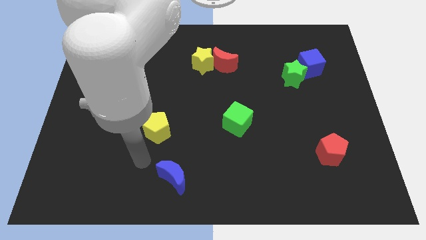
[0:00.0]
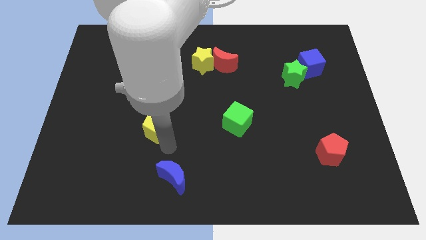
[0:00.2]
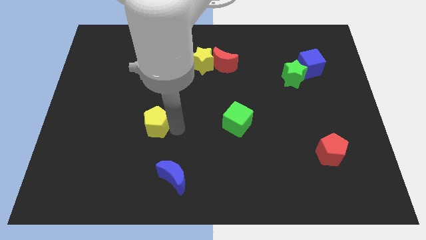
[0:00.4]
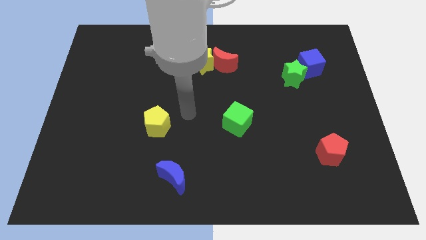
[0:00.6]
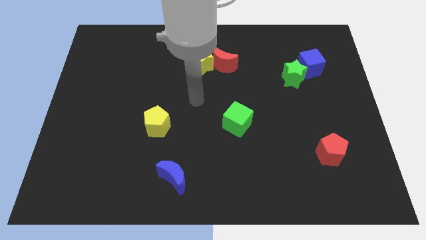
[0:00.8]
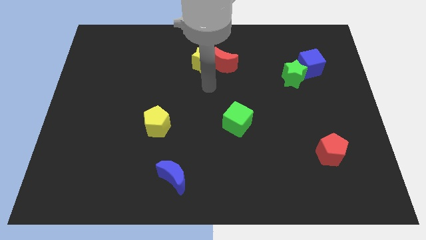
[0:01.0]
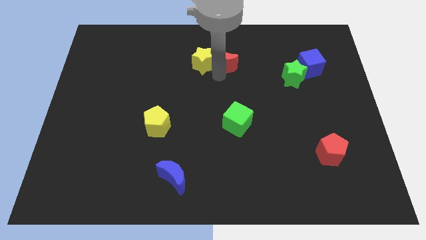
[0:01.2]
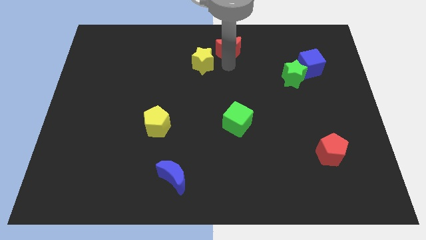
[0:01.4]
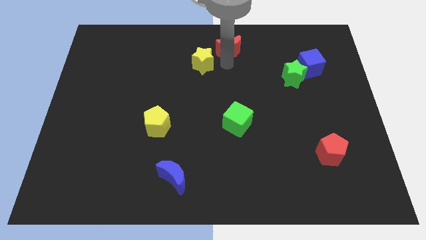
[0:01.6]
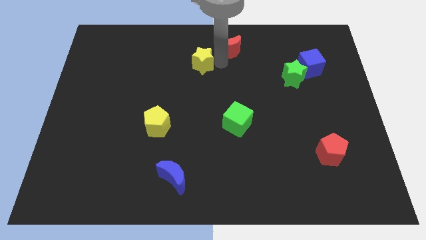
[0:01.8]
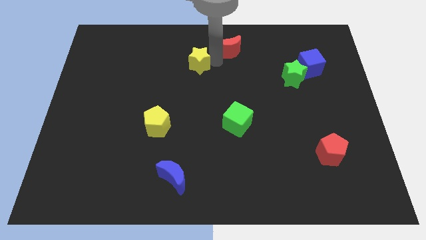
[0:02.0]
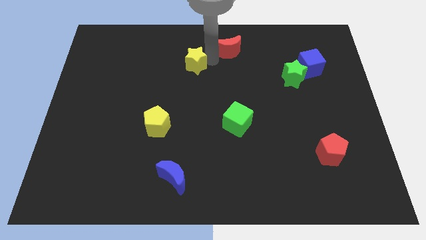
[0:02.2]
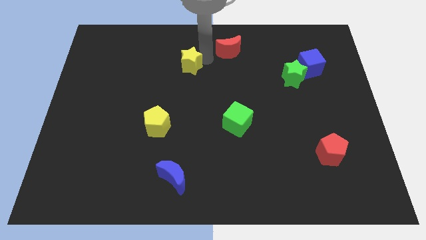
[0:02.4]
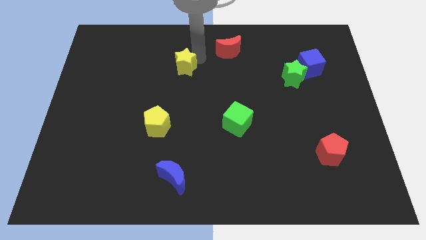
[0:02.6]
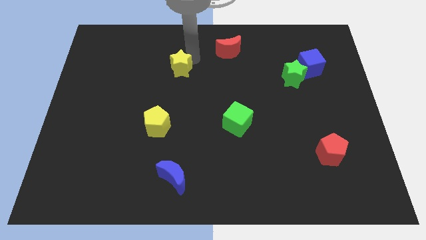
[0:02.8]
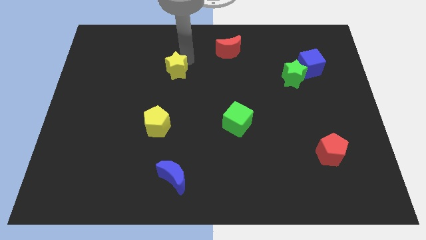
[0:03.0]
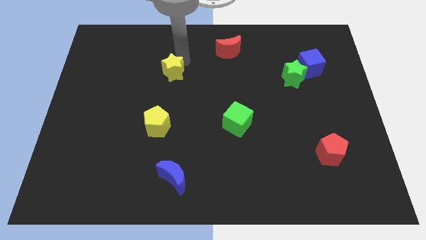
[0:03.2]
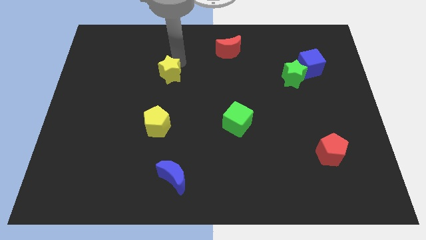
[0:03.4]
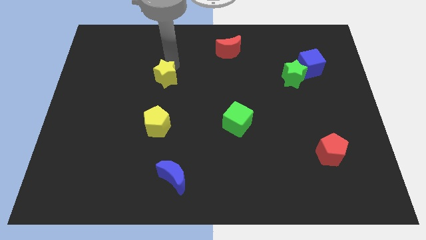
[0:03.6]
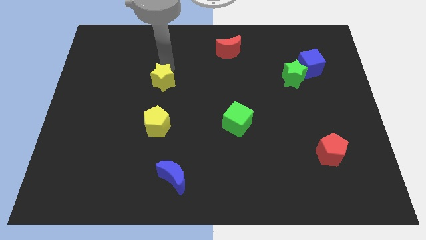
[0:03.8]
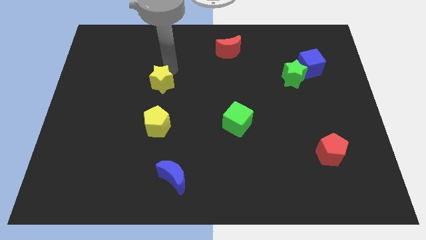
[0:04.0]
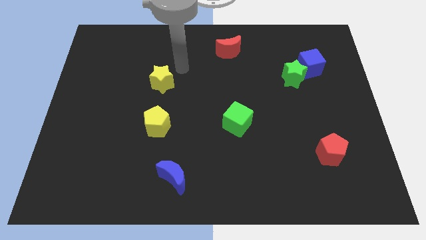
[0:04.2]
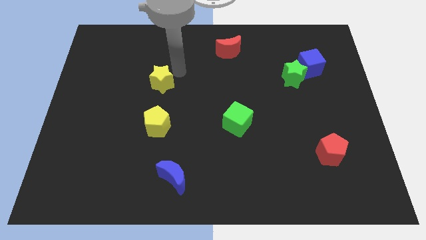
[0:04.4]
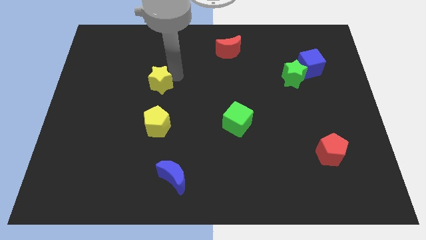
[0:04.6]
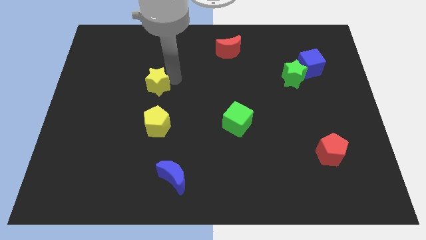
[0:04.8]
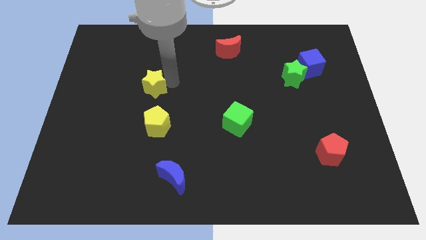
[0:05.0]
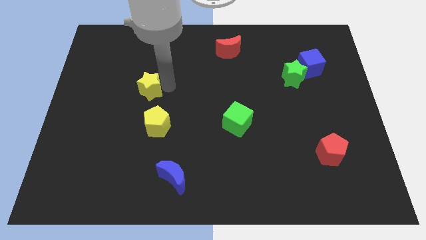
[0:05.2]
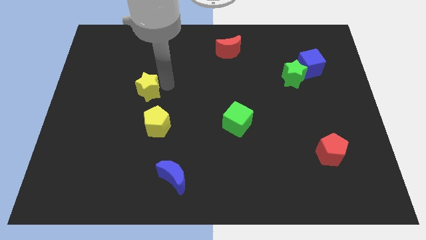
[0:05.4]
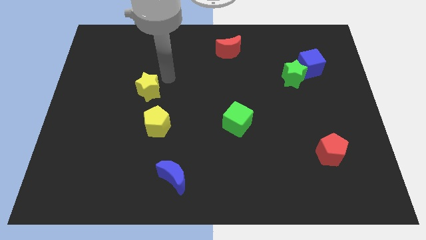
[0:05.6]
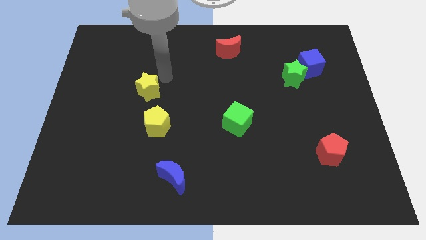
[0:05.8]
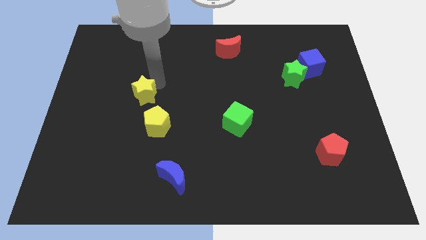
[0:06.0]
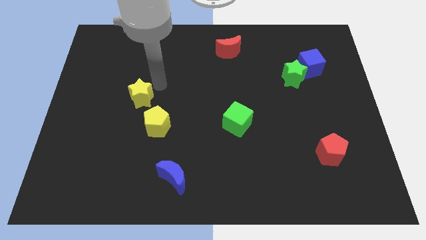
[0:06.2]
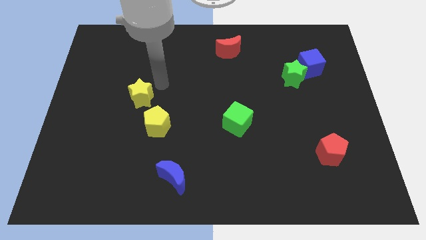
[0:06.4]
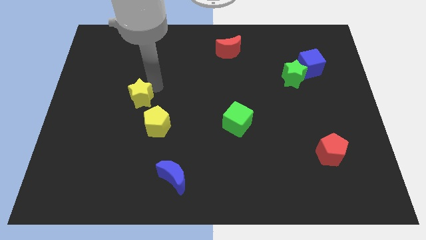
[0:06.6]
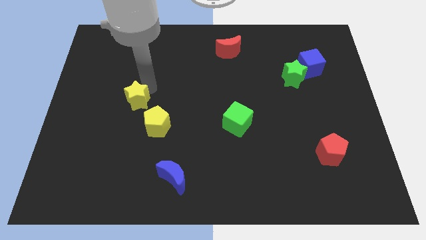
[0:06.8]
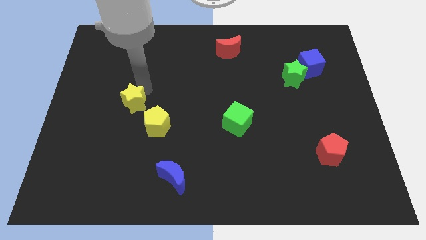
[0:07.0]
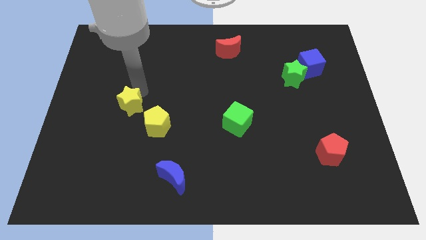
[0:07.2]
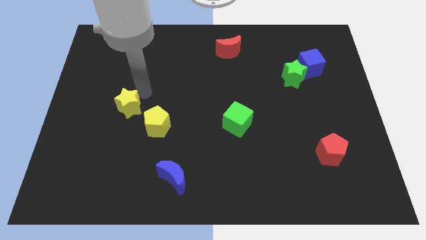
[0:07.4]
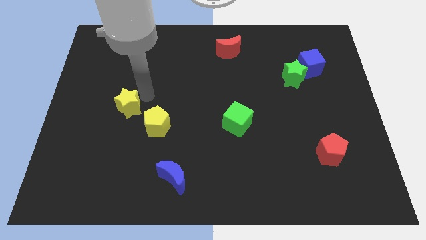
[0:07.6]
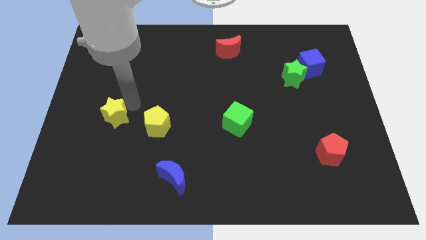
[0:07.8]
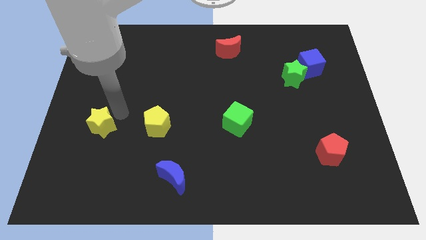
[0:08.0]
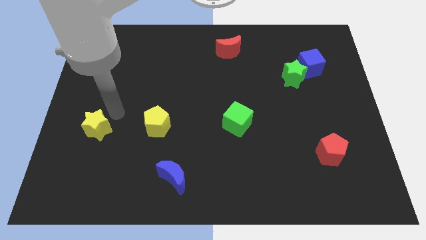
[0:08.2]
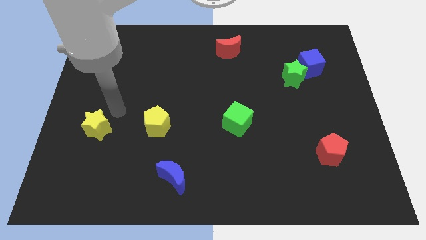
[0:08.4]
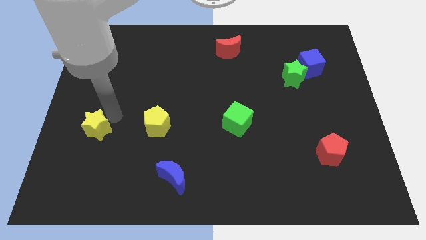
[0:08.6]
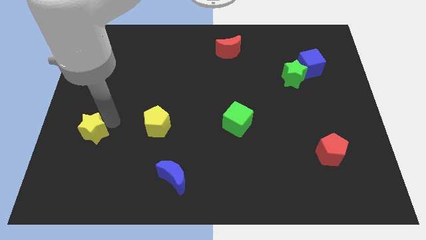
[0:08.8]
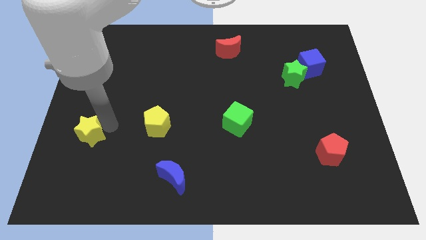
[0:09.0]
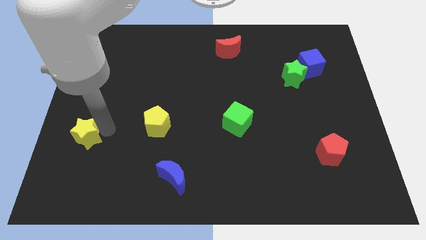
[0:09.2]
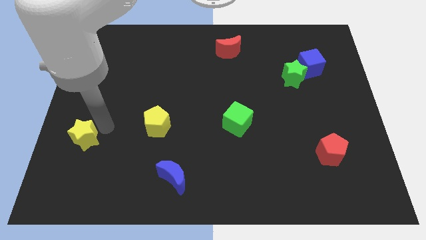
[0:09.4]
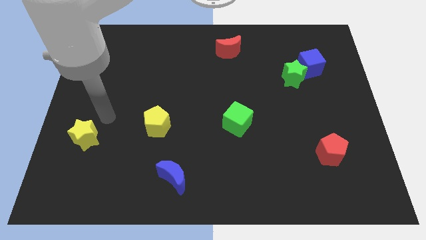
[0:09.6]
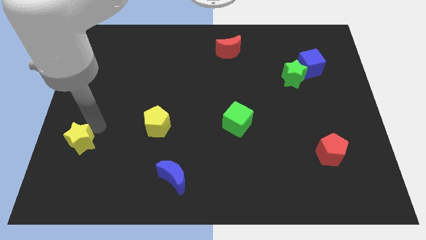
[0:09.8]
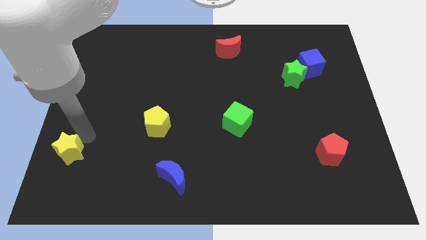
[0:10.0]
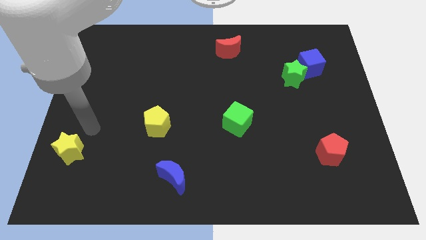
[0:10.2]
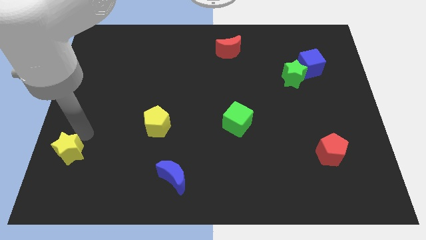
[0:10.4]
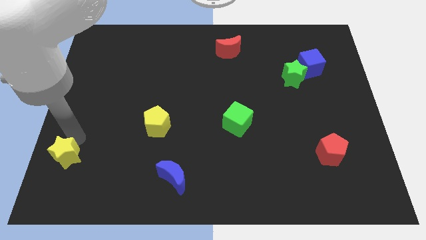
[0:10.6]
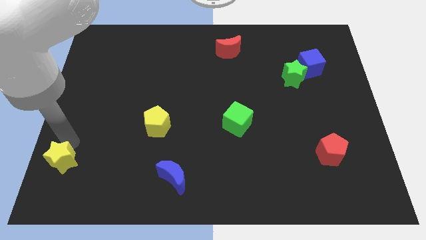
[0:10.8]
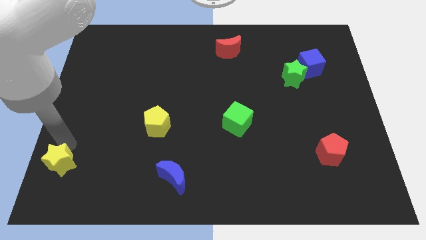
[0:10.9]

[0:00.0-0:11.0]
put the yellow star to the lower left corner

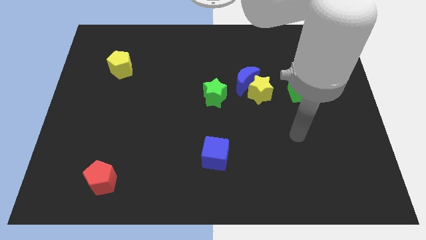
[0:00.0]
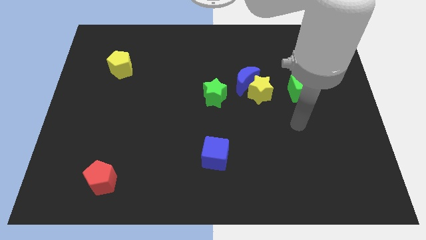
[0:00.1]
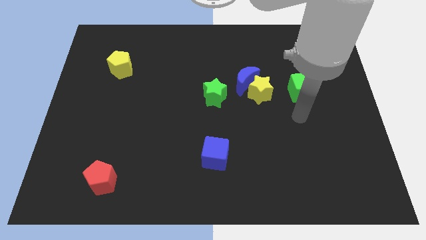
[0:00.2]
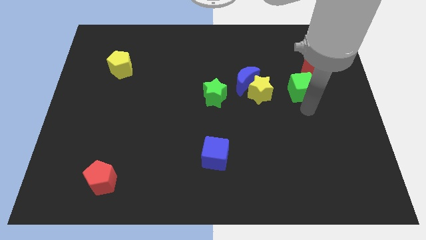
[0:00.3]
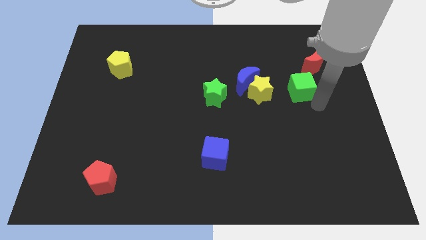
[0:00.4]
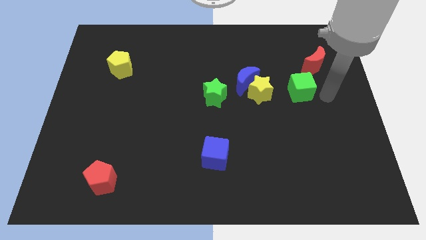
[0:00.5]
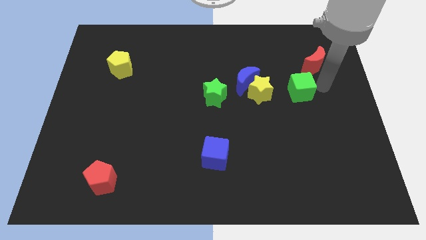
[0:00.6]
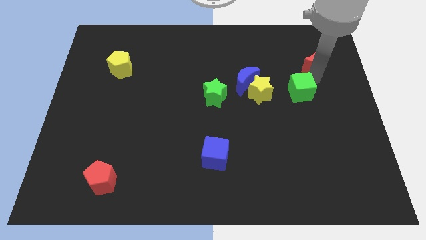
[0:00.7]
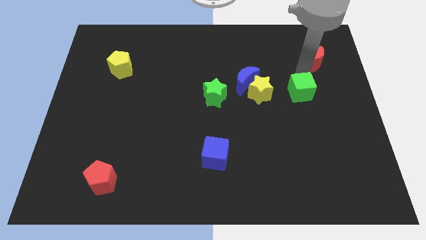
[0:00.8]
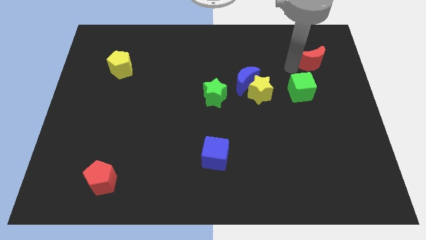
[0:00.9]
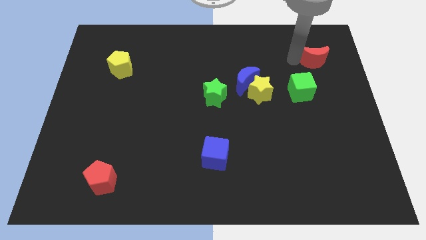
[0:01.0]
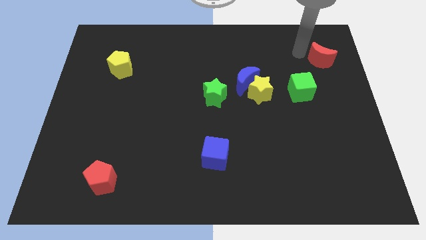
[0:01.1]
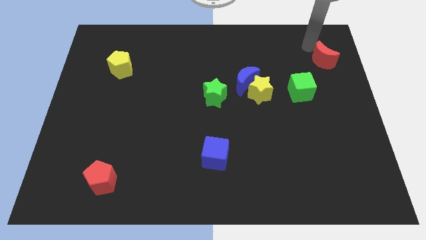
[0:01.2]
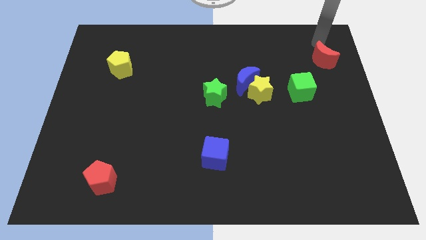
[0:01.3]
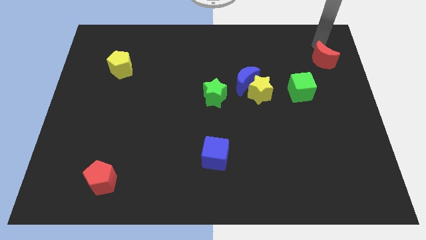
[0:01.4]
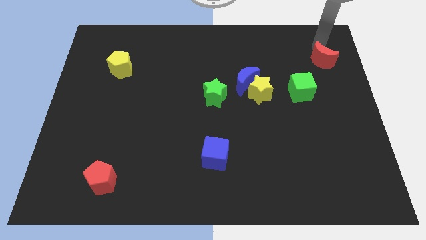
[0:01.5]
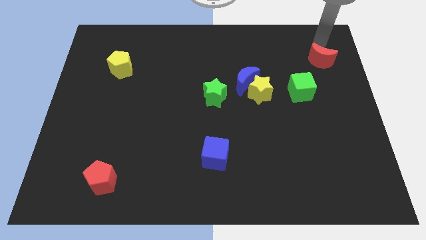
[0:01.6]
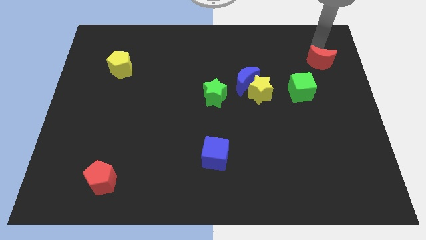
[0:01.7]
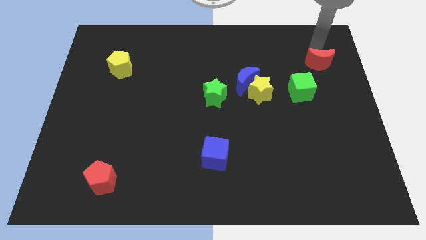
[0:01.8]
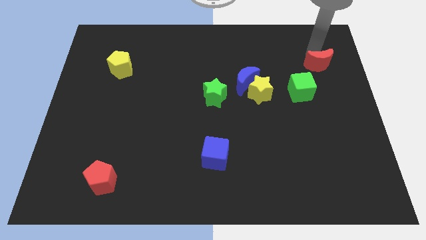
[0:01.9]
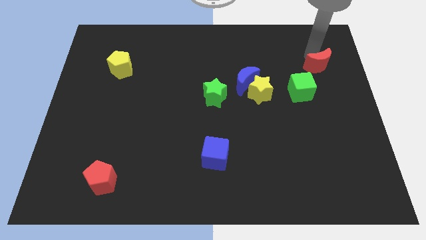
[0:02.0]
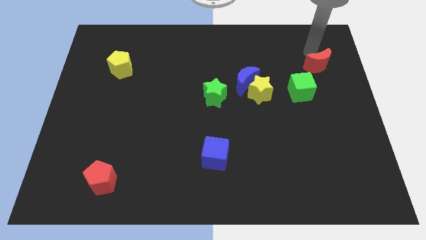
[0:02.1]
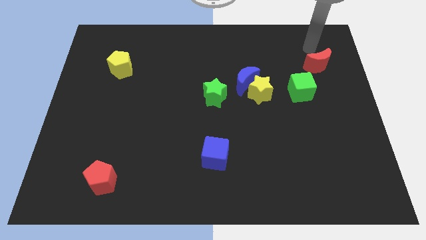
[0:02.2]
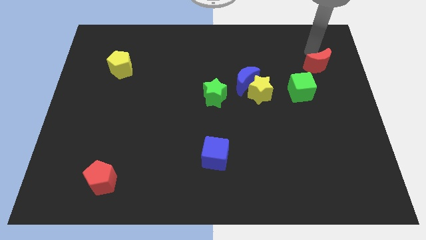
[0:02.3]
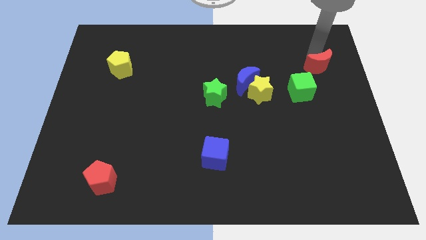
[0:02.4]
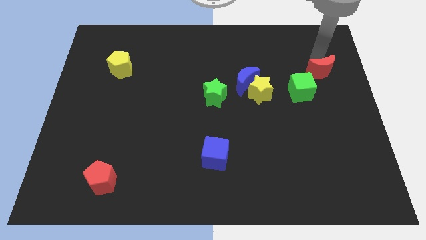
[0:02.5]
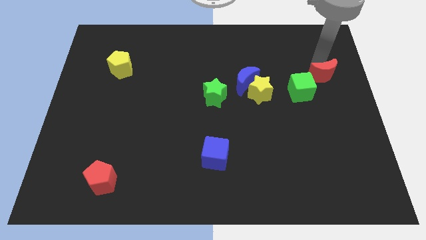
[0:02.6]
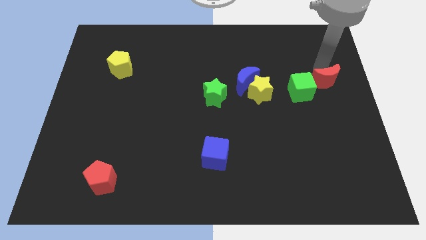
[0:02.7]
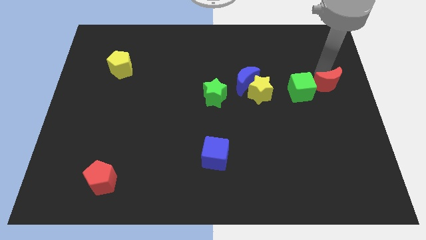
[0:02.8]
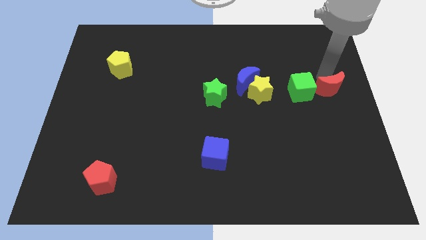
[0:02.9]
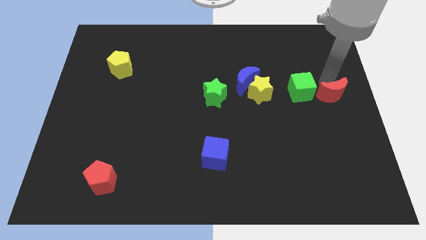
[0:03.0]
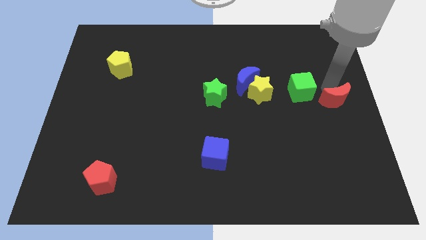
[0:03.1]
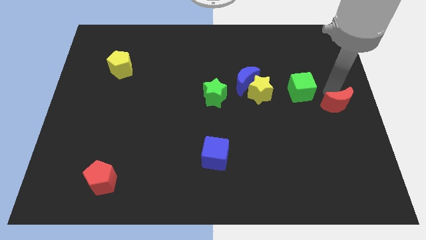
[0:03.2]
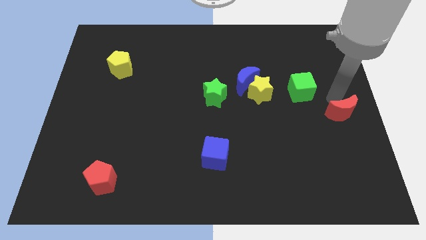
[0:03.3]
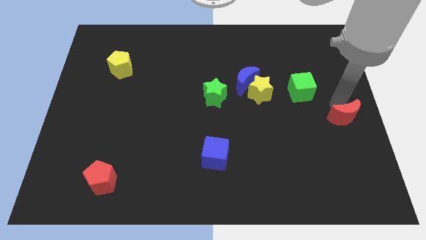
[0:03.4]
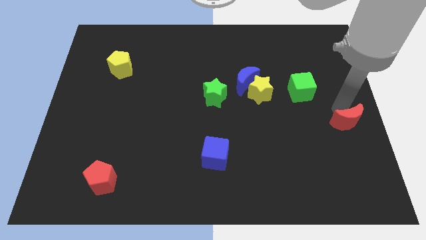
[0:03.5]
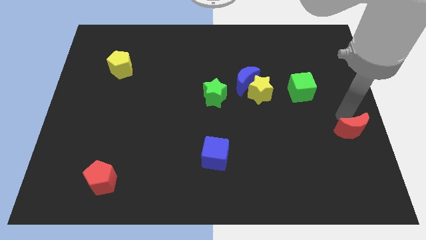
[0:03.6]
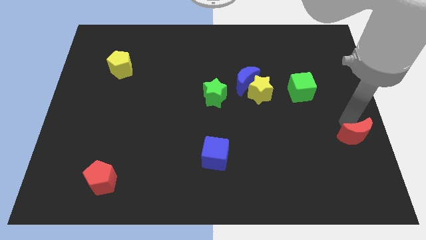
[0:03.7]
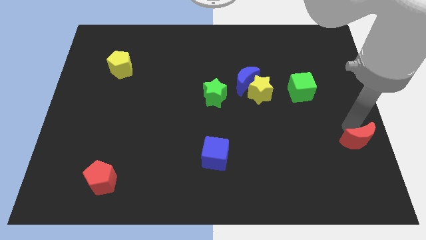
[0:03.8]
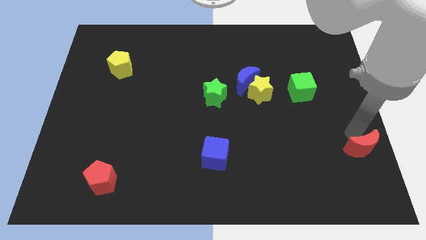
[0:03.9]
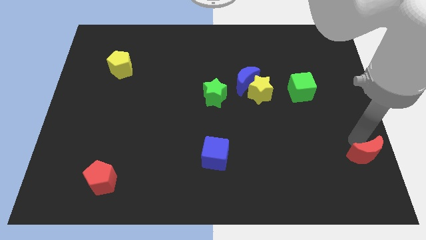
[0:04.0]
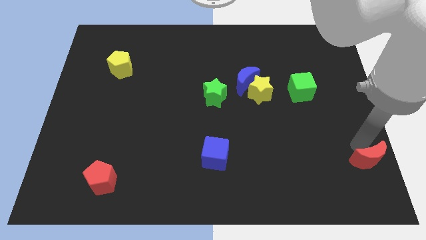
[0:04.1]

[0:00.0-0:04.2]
slide the red moon to the bottom right of the board
